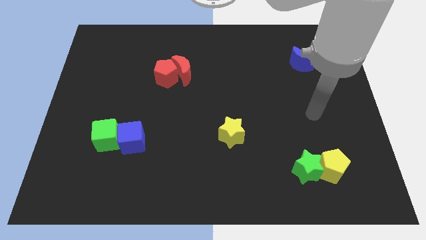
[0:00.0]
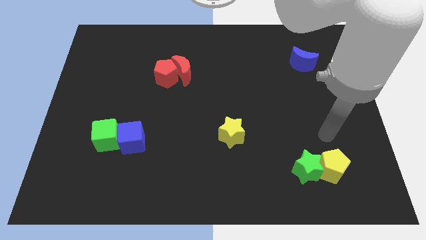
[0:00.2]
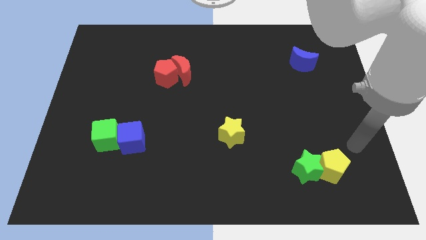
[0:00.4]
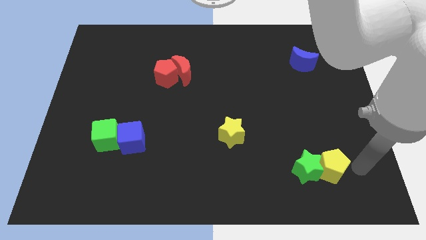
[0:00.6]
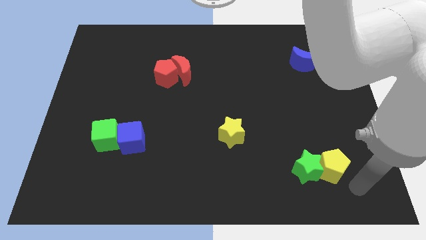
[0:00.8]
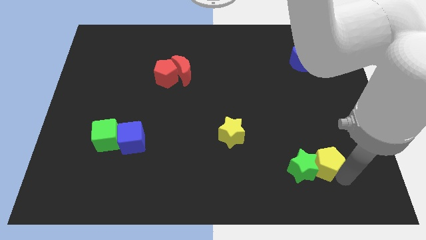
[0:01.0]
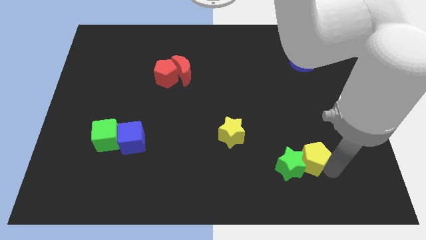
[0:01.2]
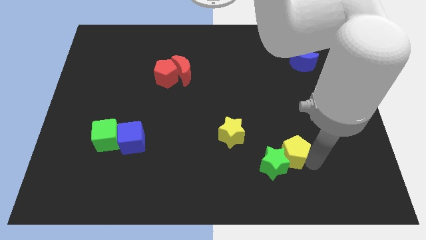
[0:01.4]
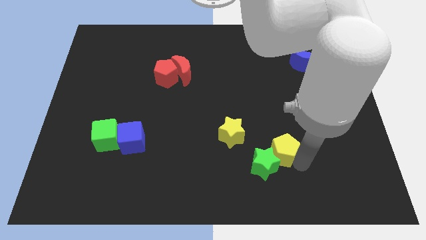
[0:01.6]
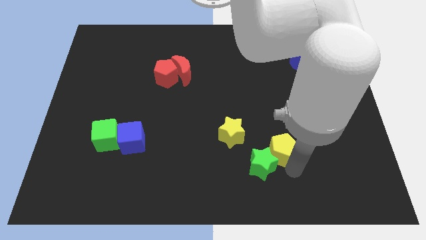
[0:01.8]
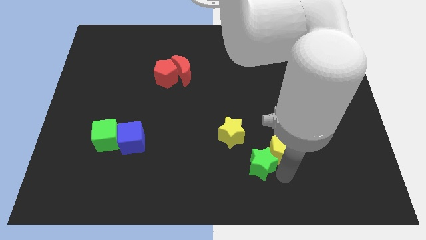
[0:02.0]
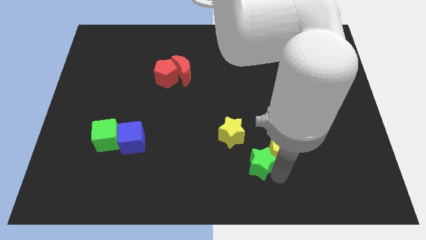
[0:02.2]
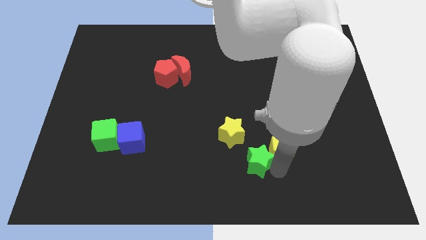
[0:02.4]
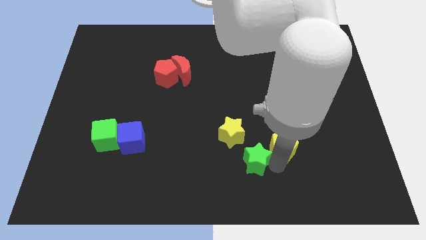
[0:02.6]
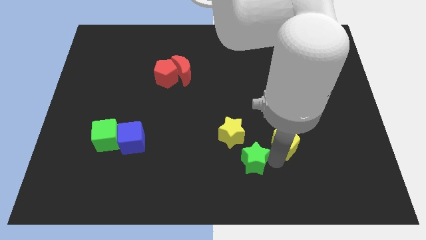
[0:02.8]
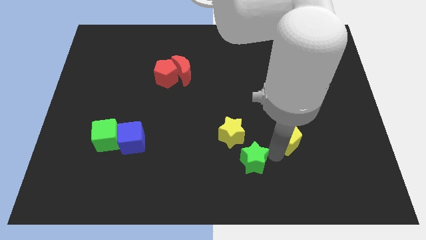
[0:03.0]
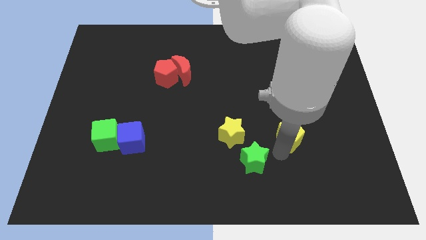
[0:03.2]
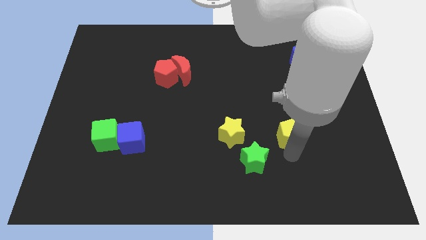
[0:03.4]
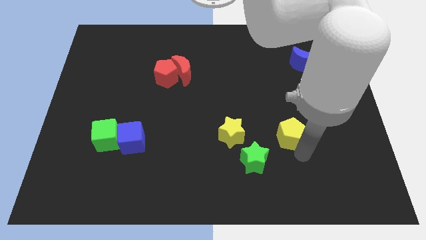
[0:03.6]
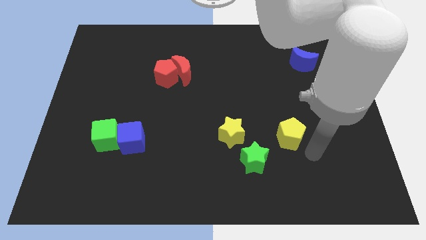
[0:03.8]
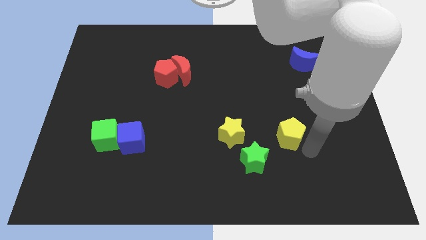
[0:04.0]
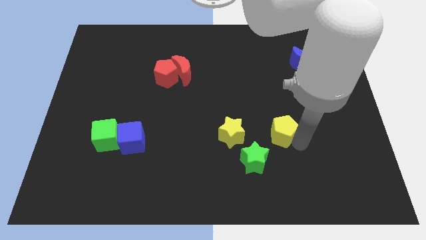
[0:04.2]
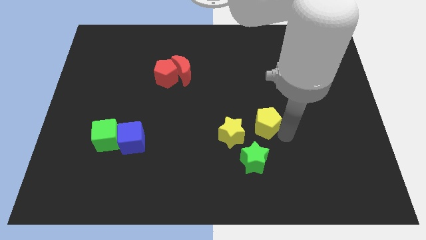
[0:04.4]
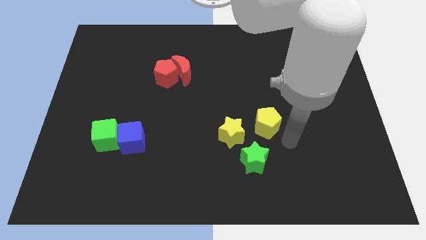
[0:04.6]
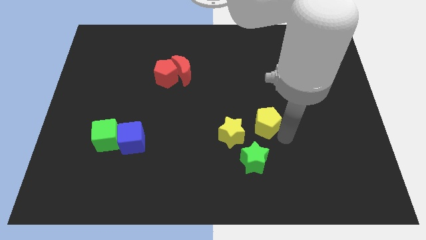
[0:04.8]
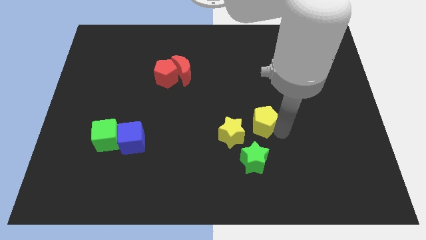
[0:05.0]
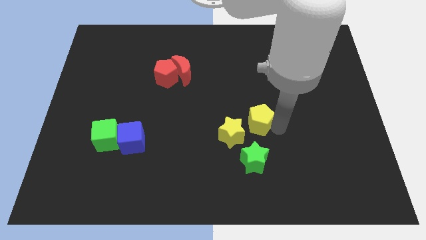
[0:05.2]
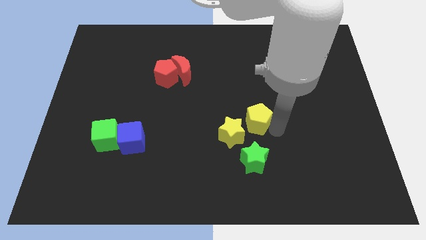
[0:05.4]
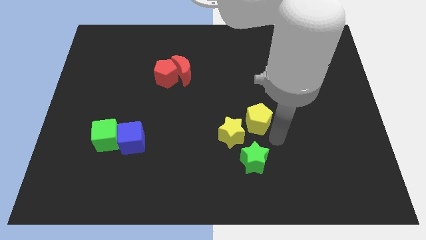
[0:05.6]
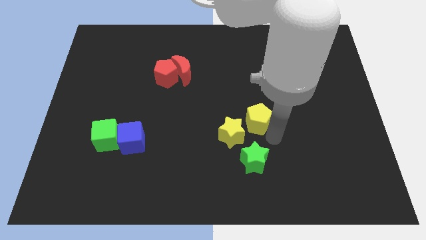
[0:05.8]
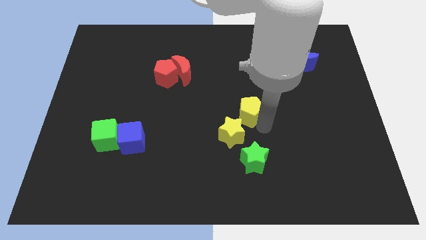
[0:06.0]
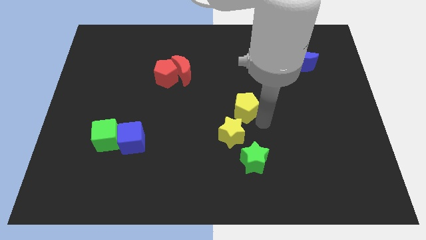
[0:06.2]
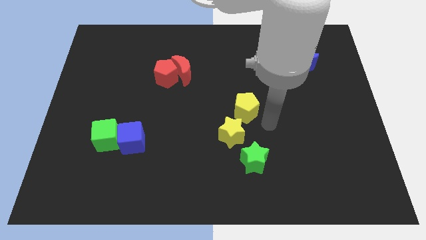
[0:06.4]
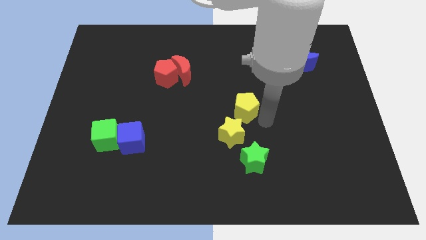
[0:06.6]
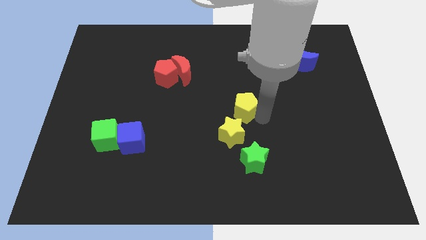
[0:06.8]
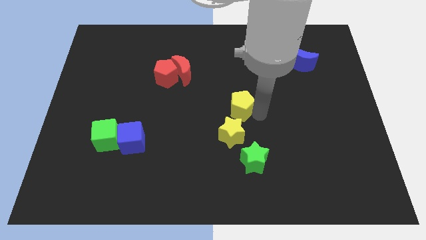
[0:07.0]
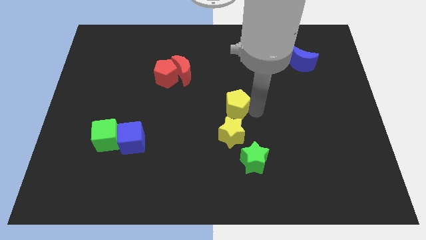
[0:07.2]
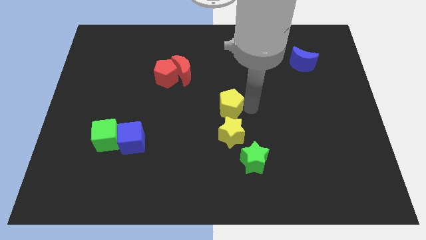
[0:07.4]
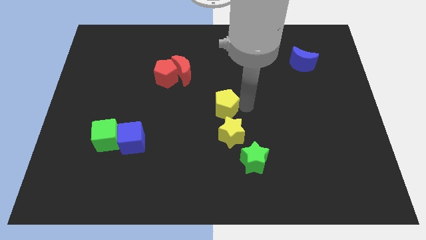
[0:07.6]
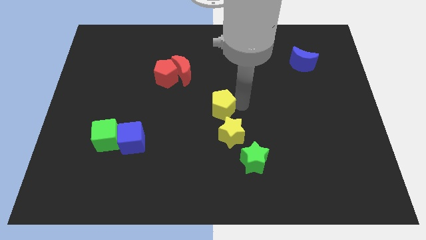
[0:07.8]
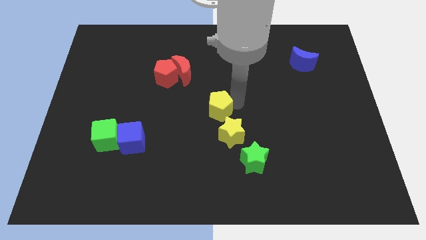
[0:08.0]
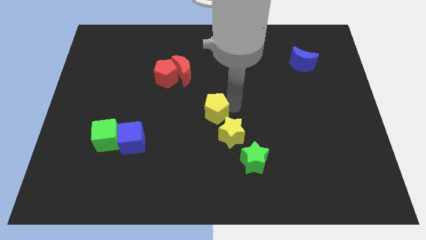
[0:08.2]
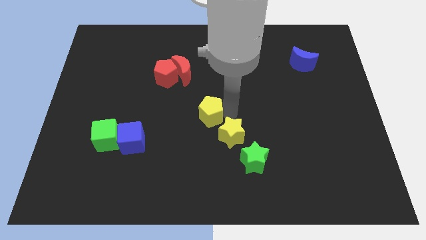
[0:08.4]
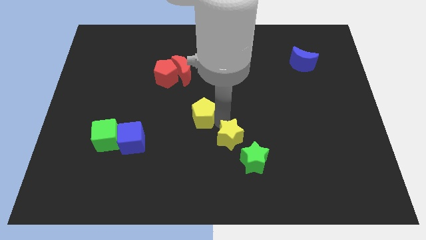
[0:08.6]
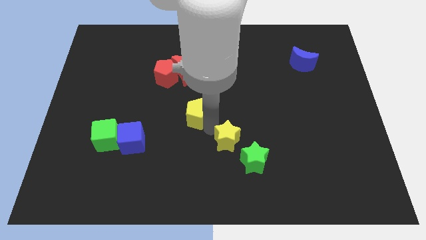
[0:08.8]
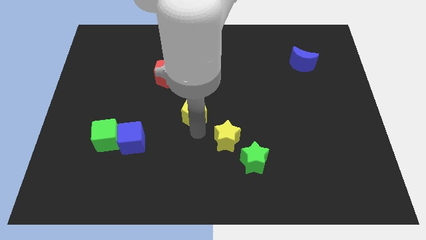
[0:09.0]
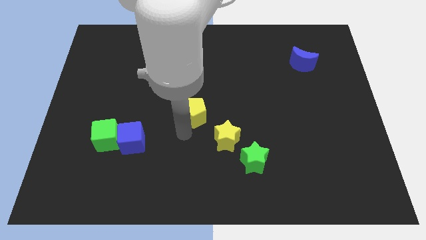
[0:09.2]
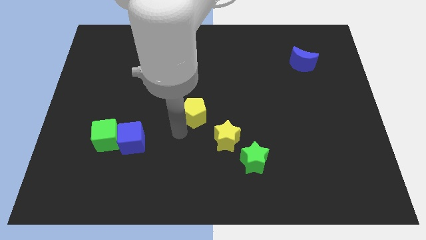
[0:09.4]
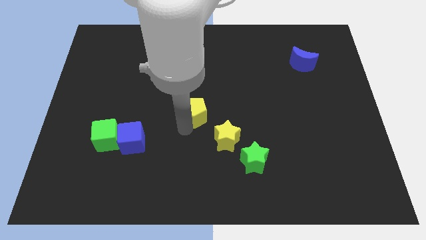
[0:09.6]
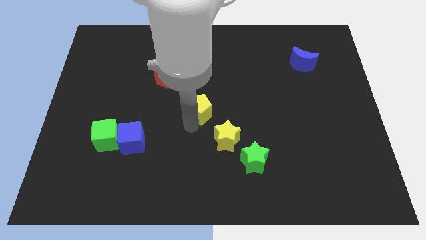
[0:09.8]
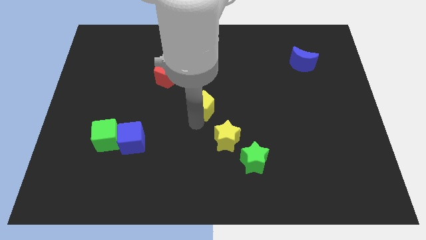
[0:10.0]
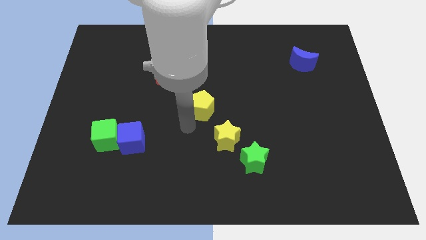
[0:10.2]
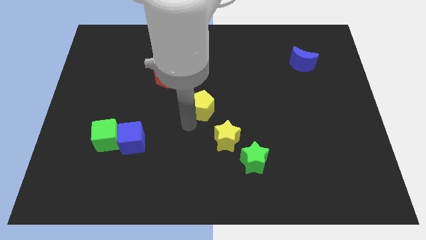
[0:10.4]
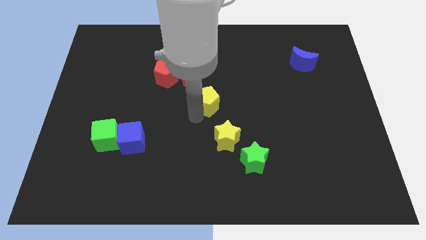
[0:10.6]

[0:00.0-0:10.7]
put the yellow pentagon to the bottom right of the red moon

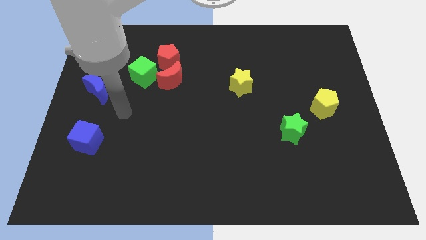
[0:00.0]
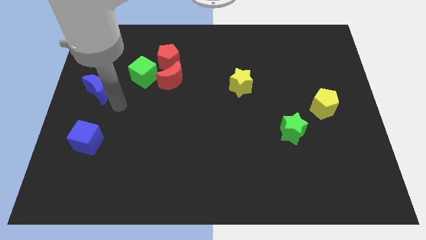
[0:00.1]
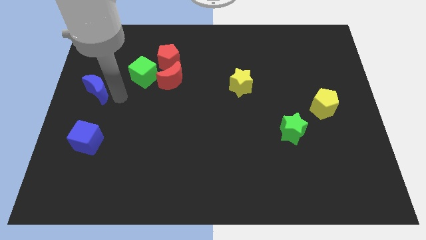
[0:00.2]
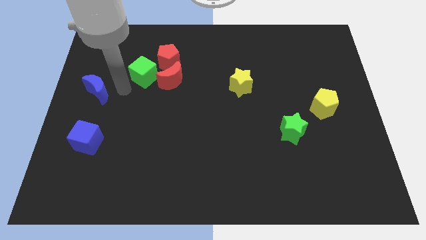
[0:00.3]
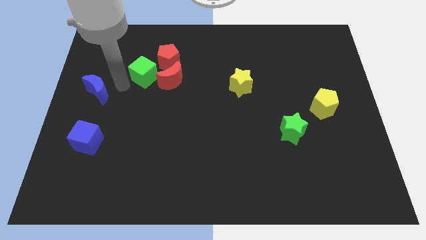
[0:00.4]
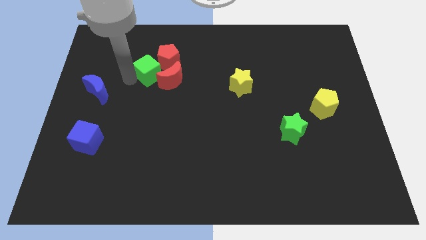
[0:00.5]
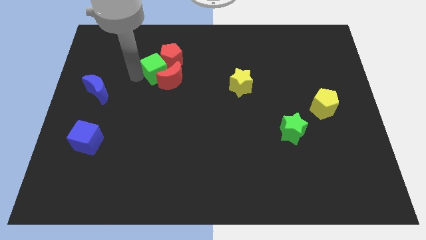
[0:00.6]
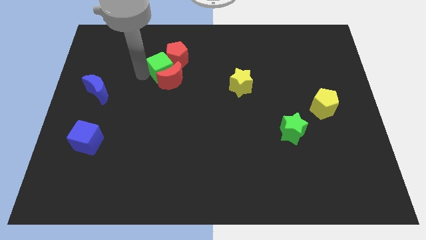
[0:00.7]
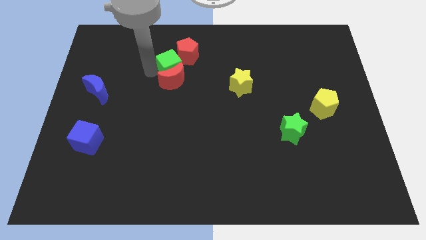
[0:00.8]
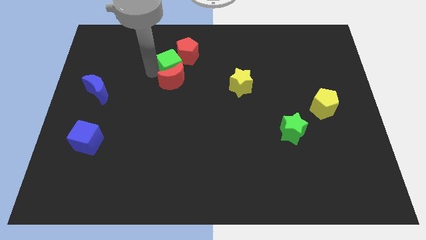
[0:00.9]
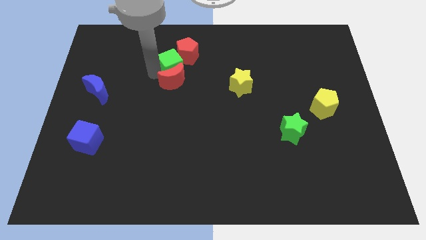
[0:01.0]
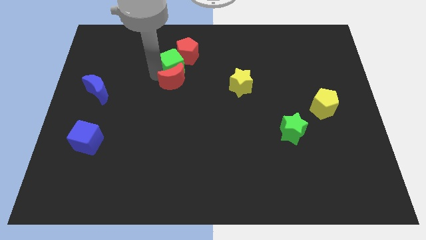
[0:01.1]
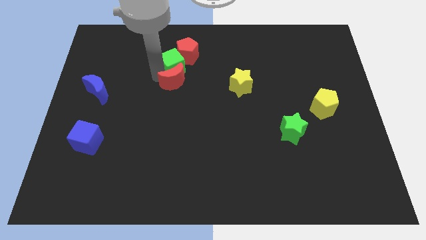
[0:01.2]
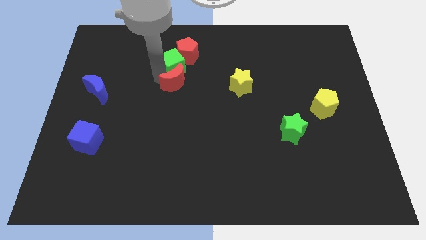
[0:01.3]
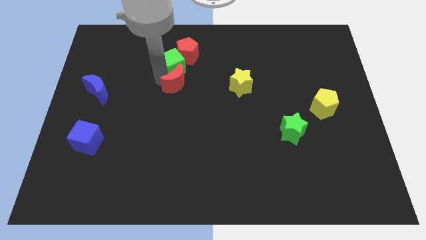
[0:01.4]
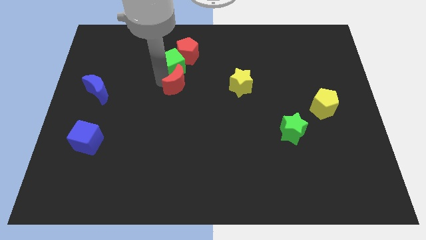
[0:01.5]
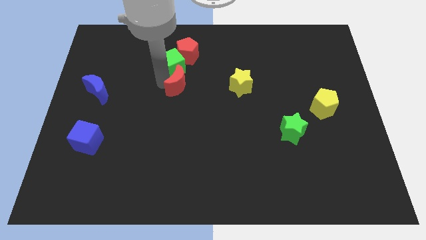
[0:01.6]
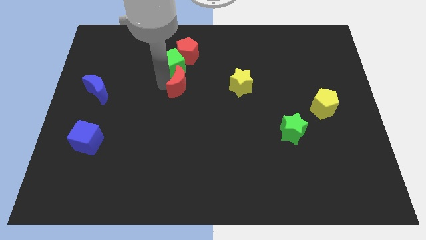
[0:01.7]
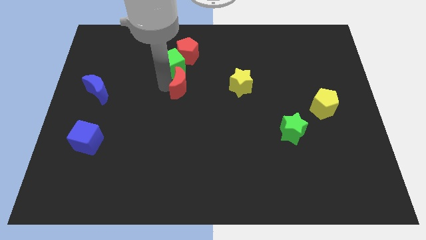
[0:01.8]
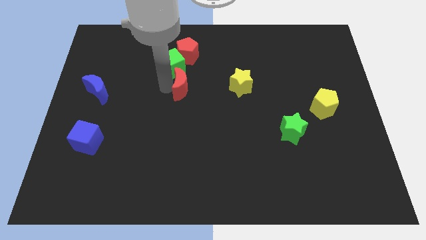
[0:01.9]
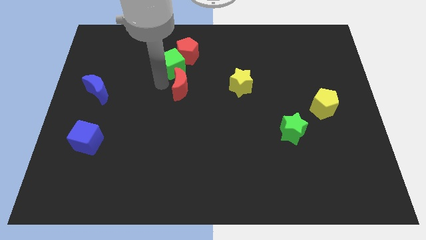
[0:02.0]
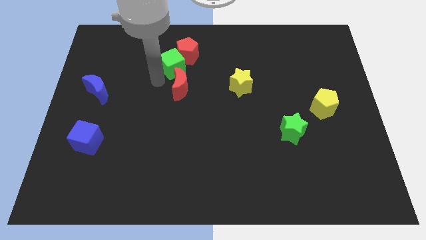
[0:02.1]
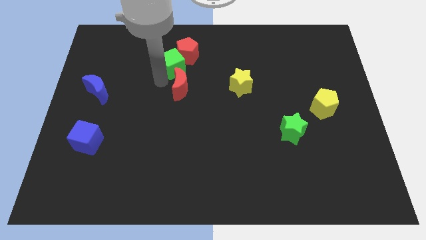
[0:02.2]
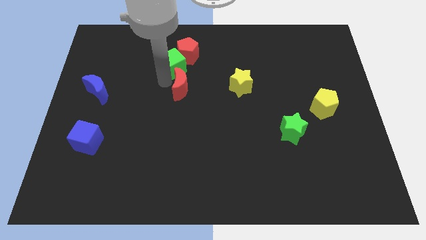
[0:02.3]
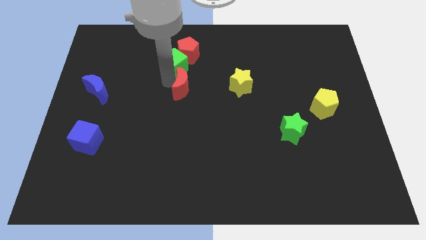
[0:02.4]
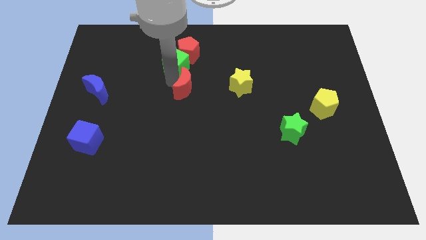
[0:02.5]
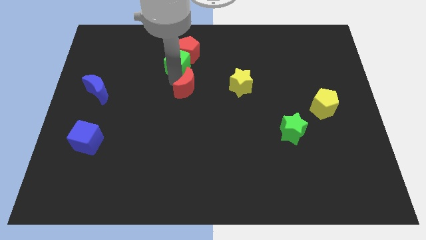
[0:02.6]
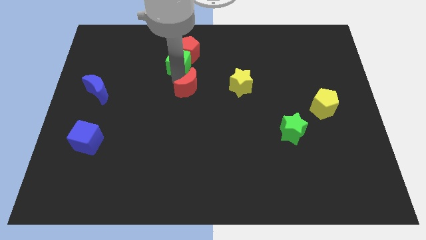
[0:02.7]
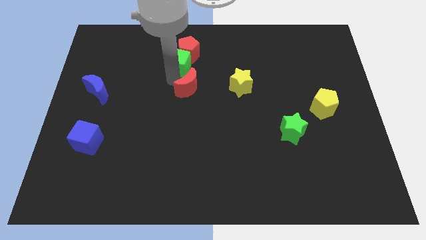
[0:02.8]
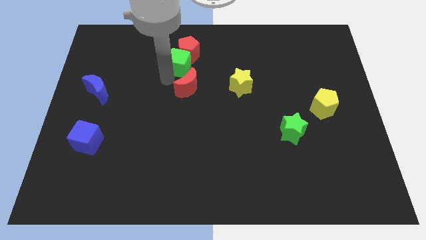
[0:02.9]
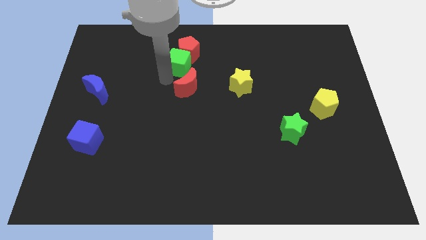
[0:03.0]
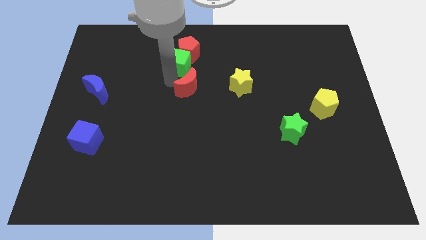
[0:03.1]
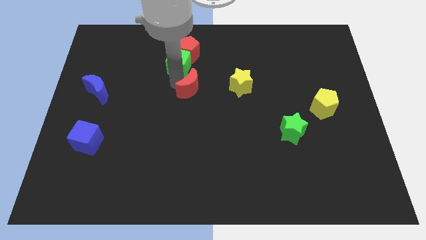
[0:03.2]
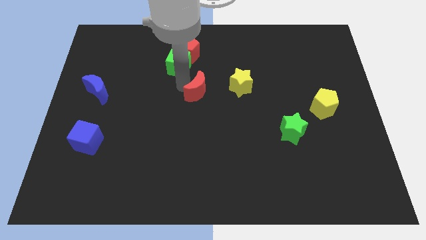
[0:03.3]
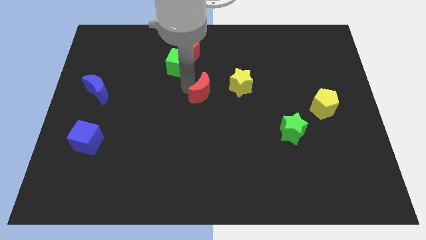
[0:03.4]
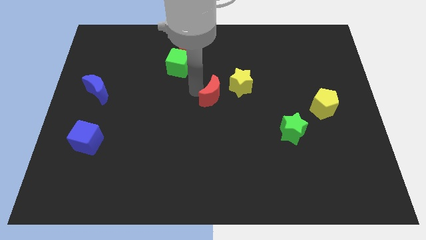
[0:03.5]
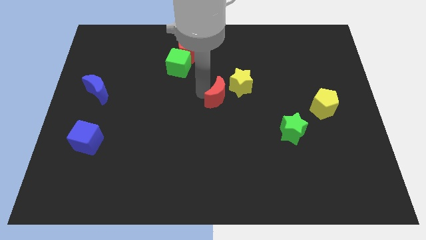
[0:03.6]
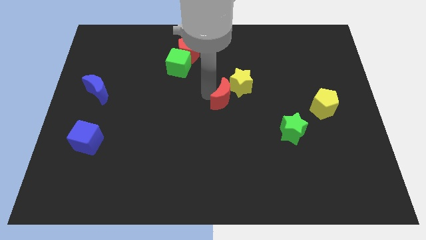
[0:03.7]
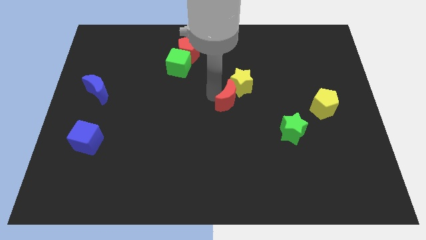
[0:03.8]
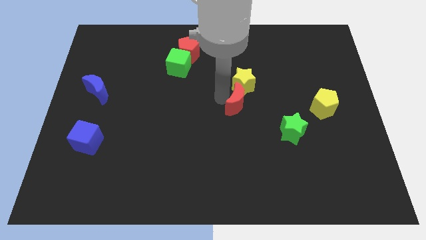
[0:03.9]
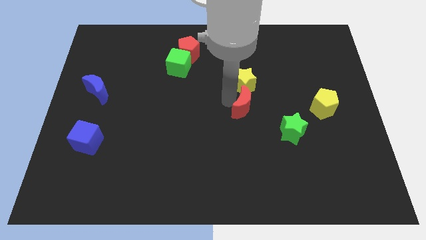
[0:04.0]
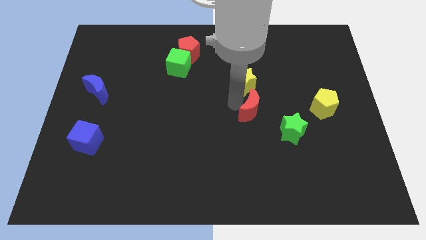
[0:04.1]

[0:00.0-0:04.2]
push the red moon to the top left of the green star
